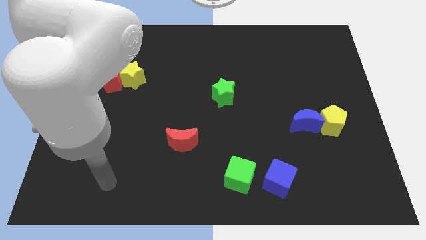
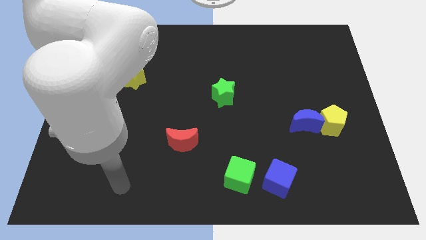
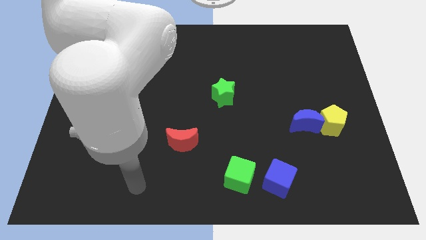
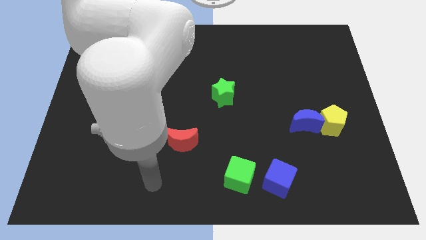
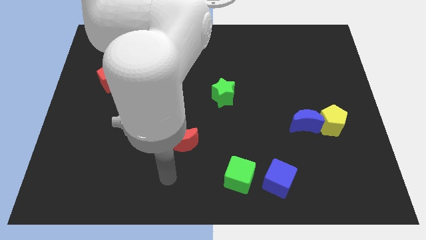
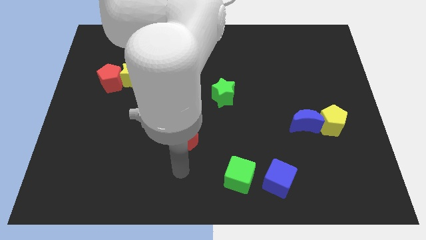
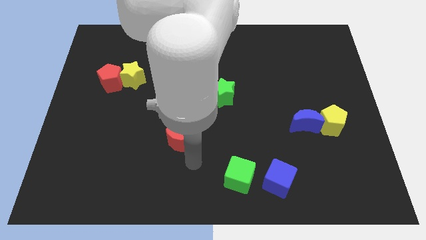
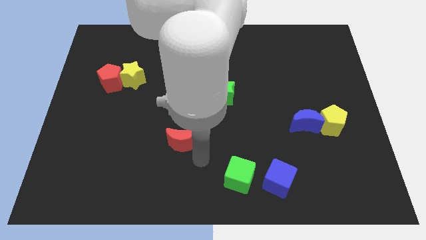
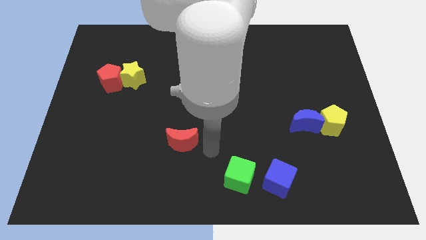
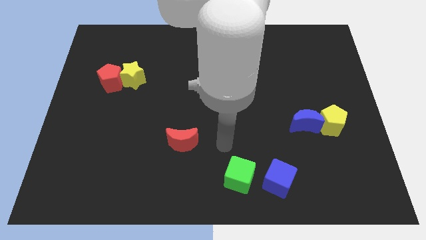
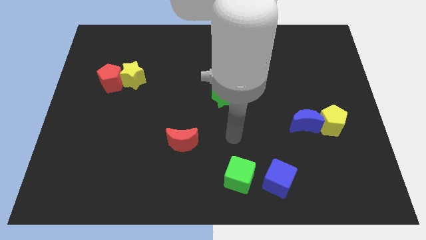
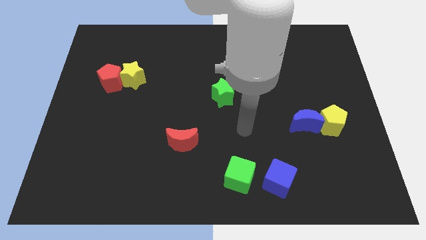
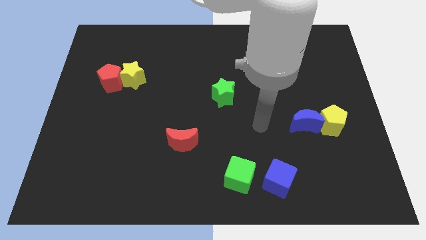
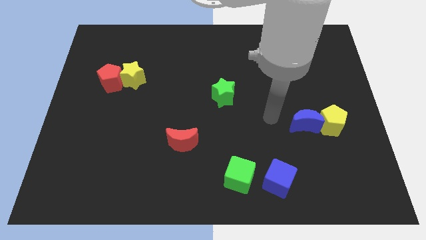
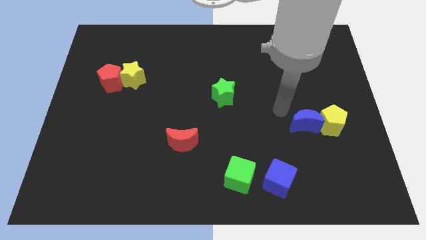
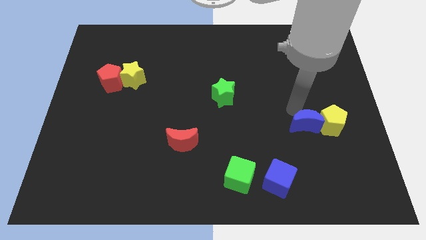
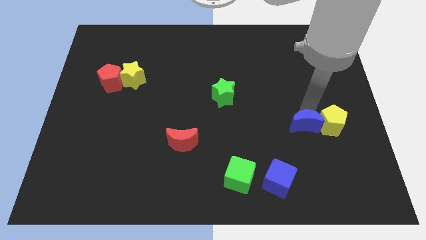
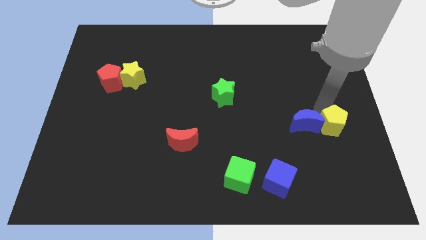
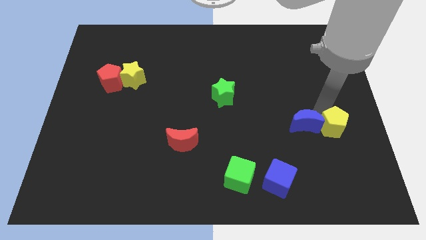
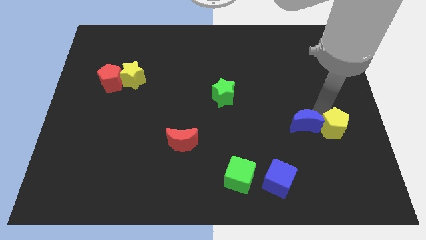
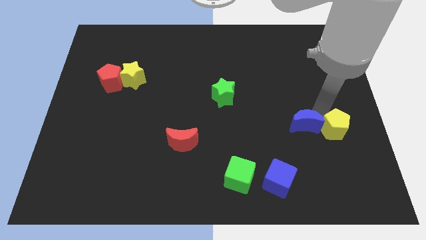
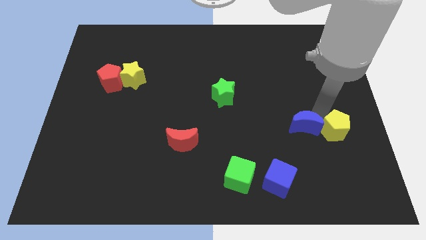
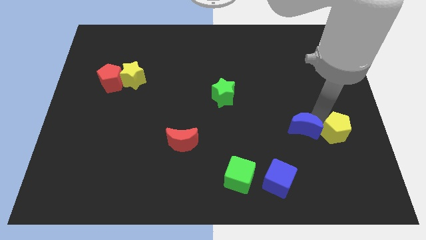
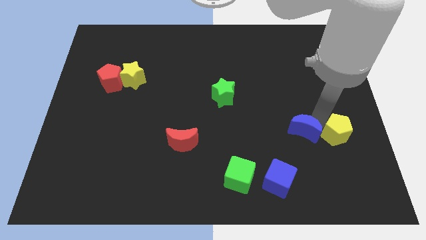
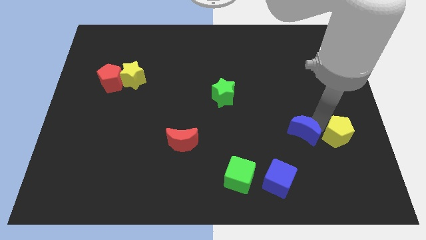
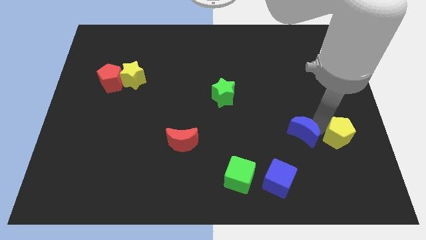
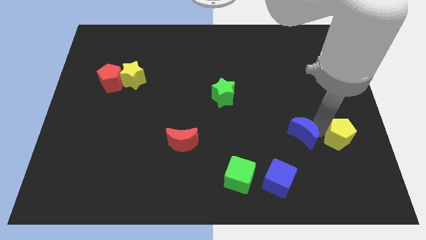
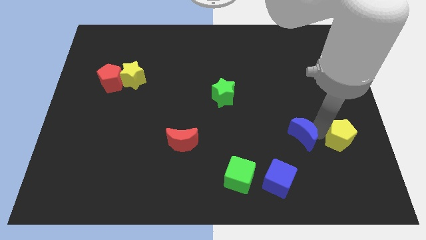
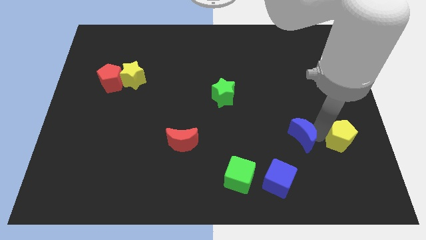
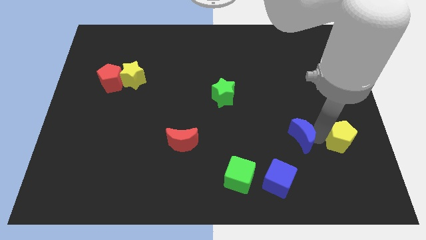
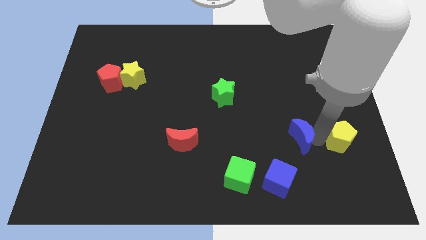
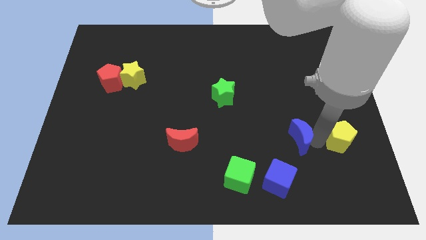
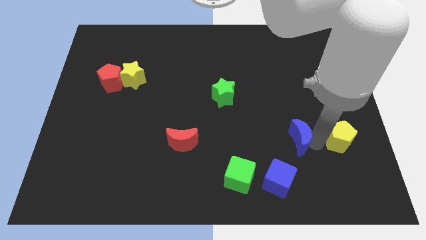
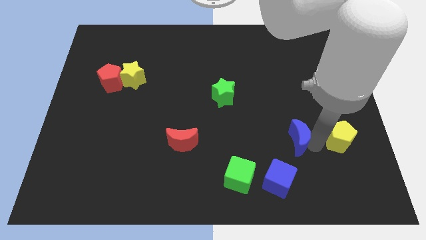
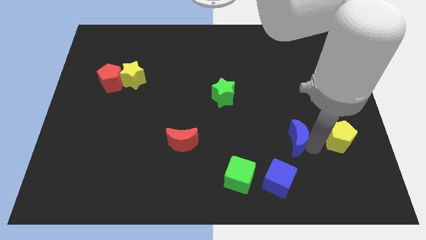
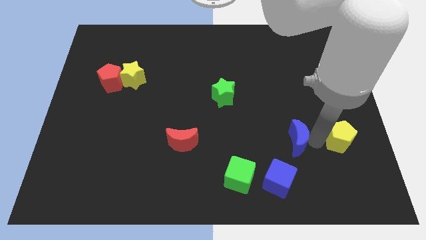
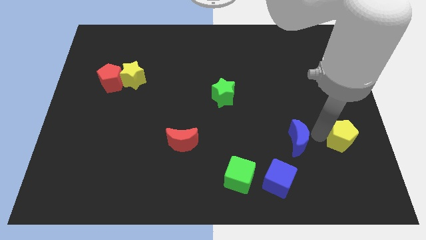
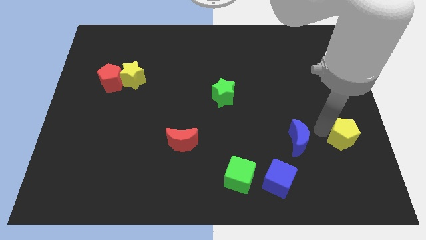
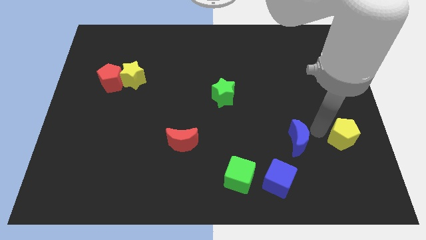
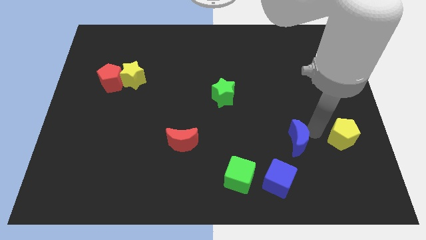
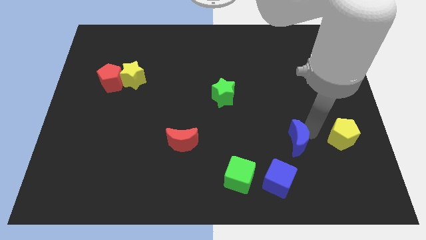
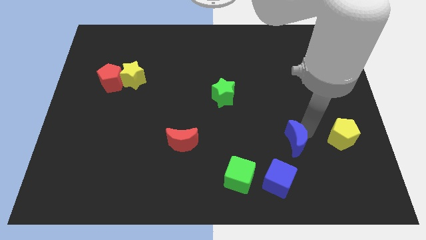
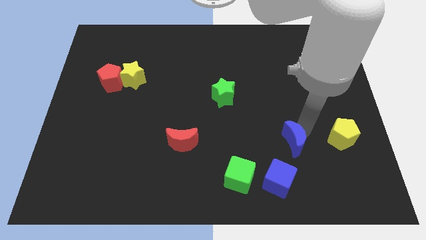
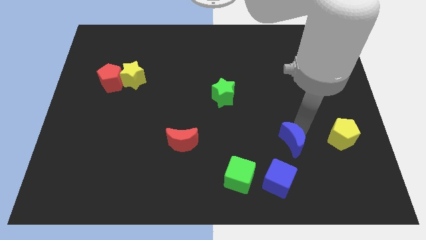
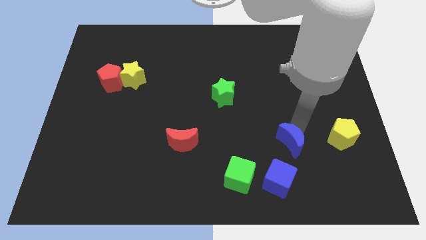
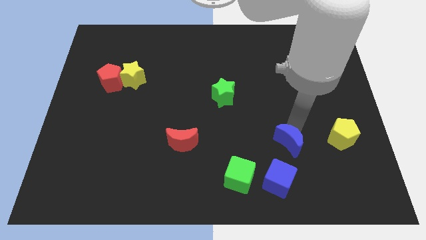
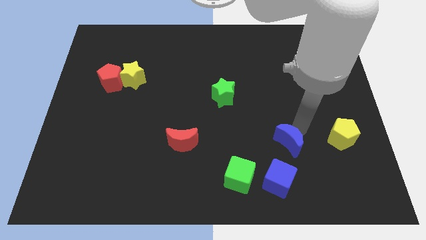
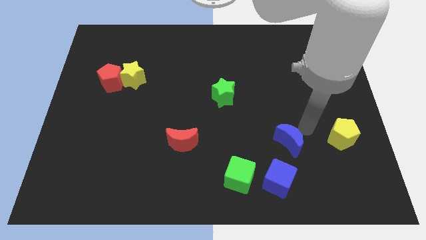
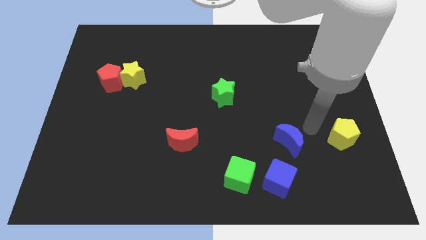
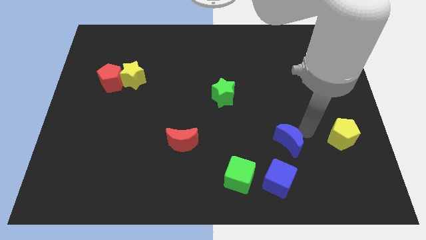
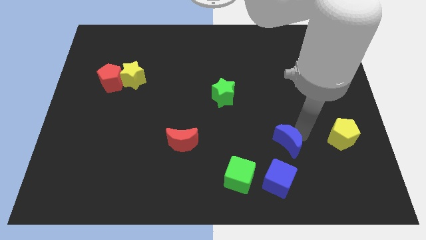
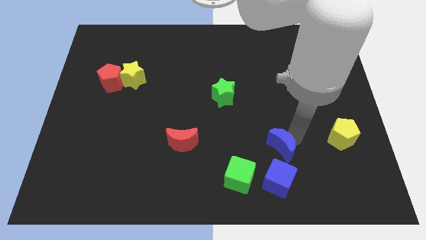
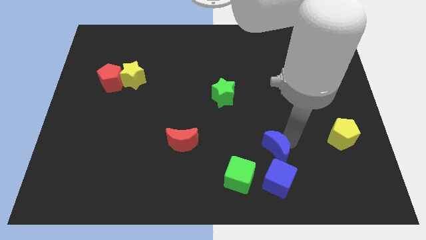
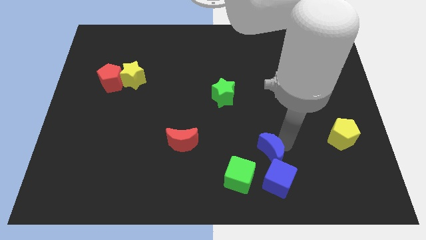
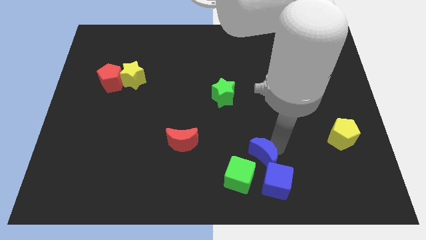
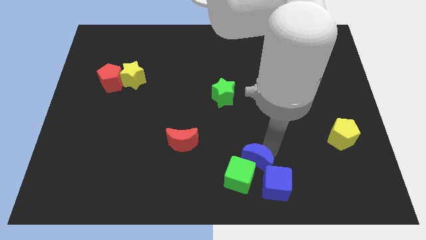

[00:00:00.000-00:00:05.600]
slide the blue moon next to the green cube

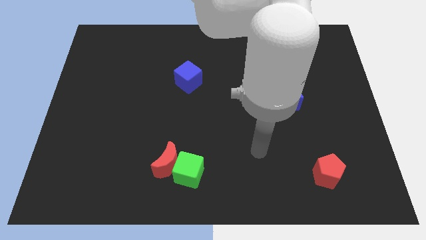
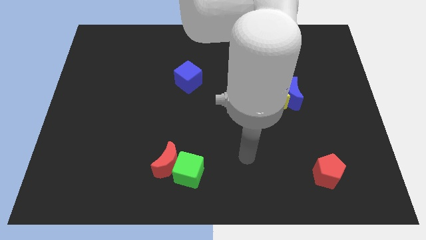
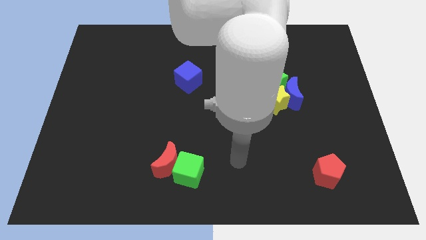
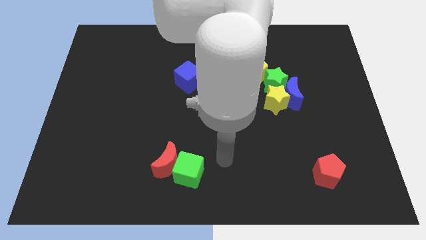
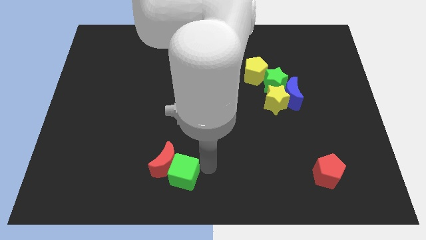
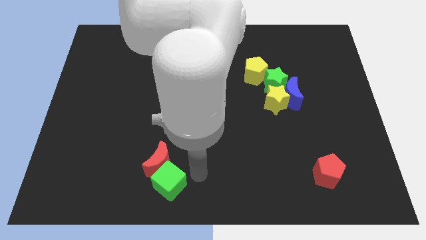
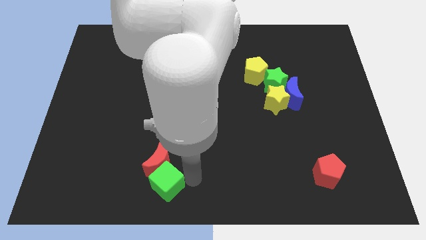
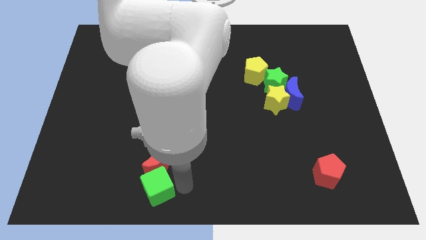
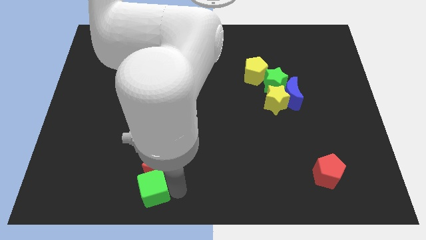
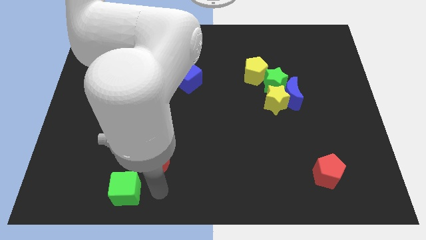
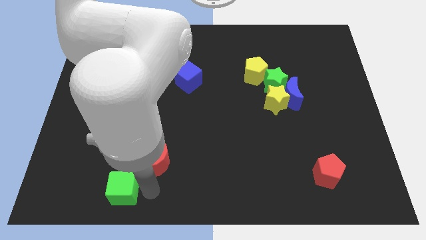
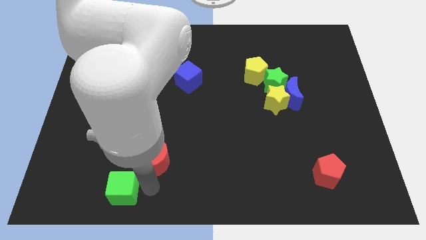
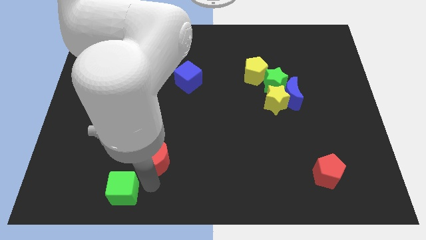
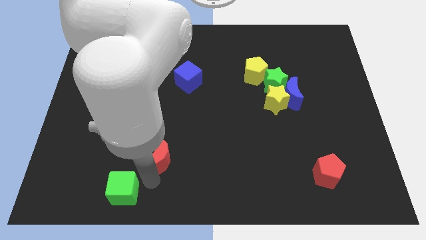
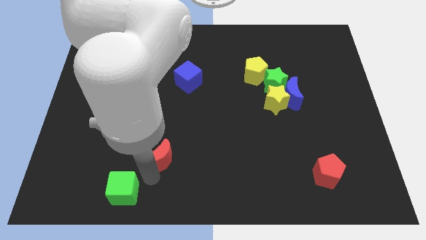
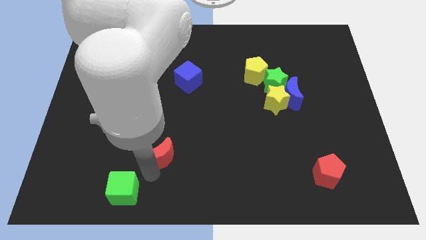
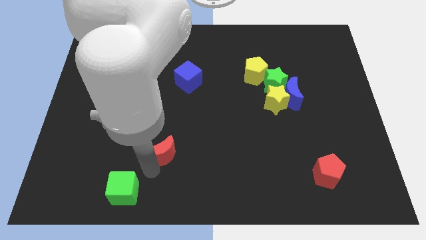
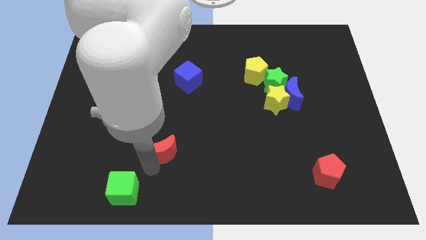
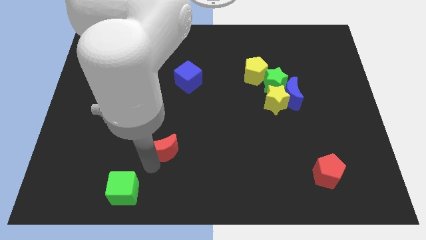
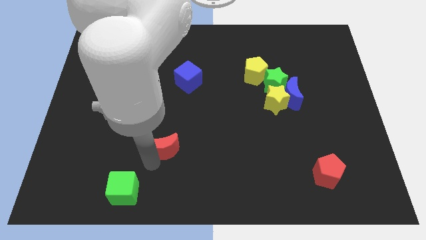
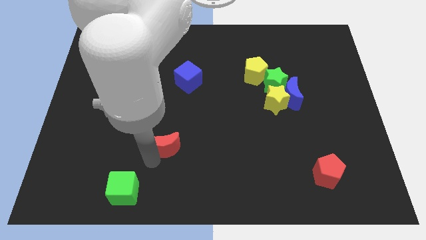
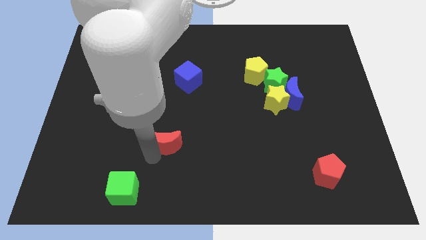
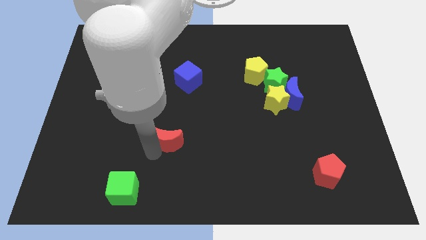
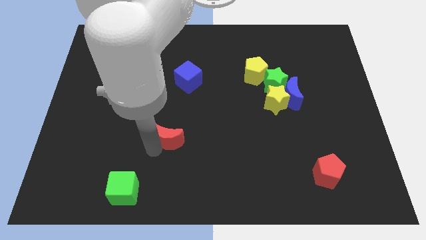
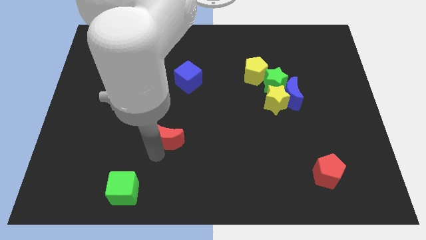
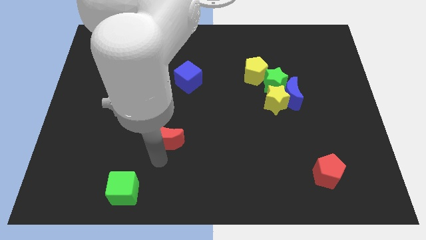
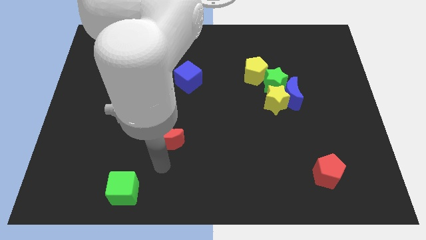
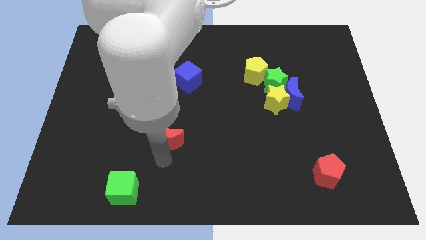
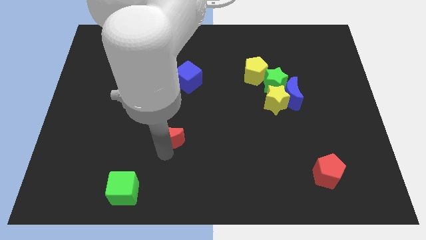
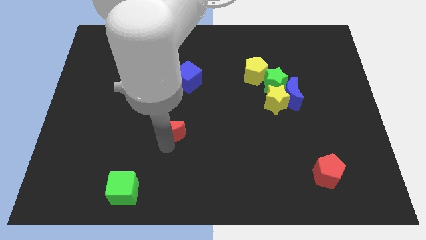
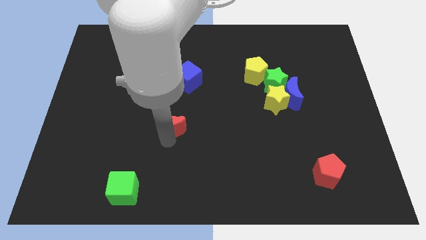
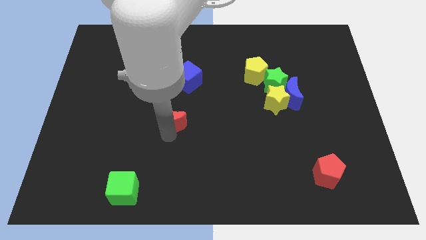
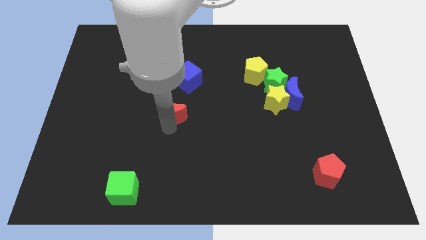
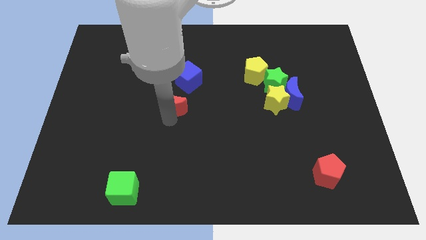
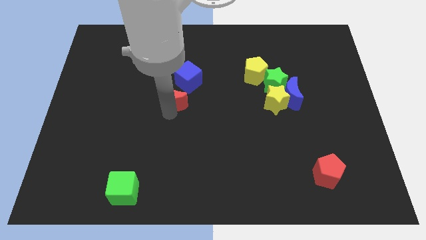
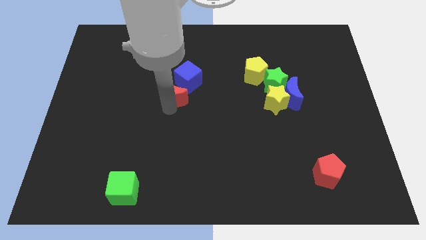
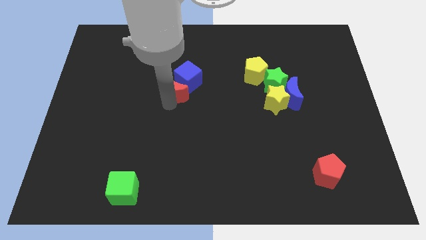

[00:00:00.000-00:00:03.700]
put the red moon next to the blue cube
